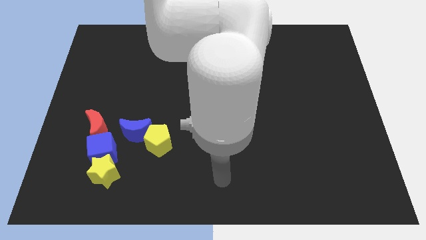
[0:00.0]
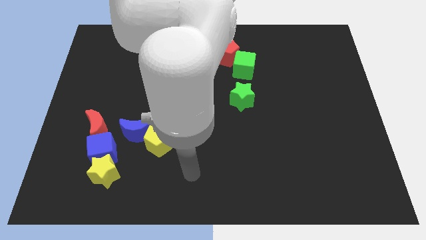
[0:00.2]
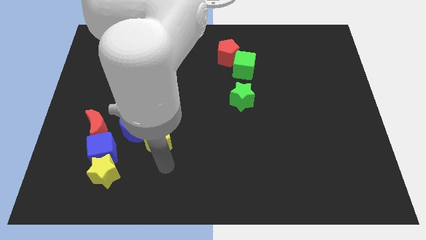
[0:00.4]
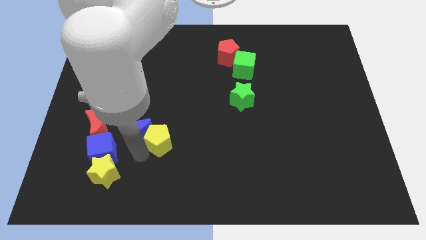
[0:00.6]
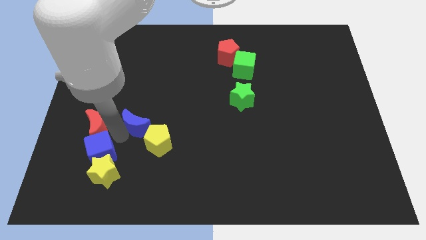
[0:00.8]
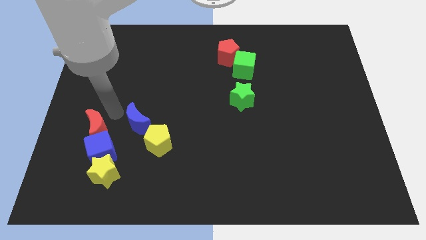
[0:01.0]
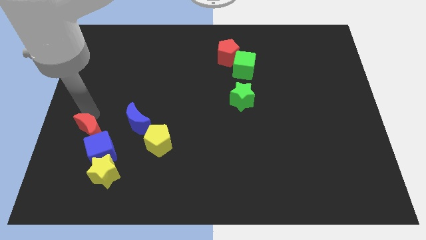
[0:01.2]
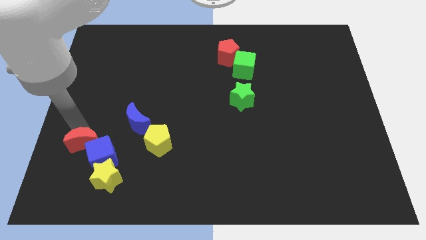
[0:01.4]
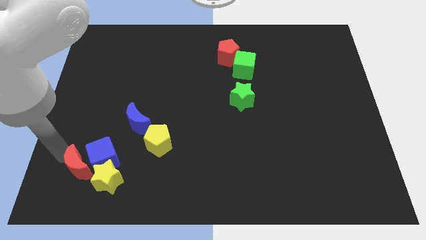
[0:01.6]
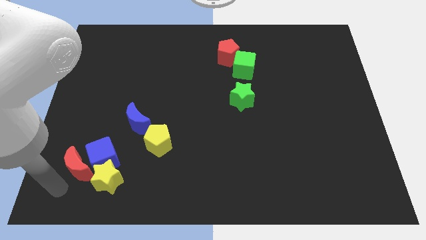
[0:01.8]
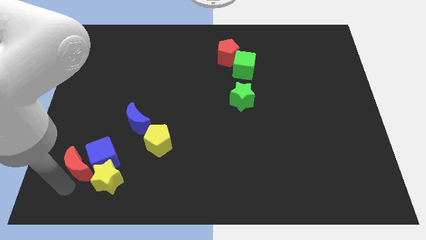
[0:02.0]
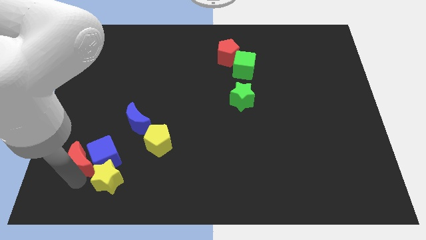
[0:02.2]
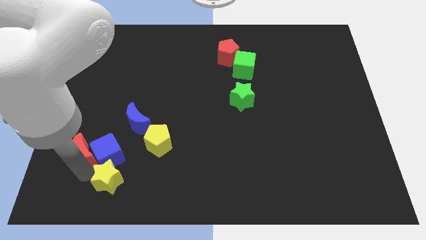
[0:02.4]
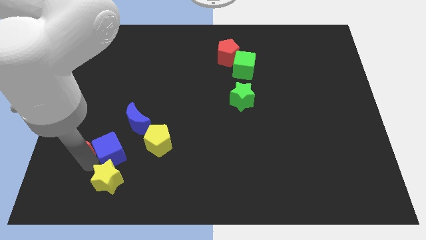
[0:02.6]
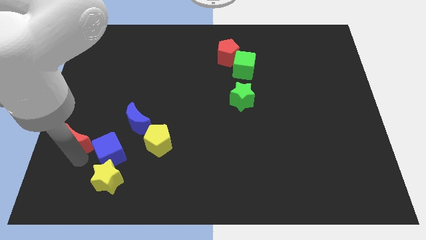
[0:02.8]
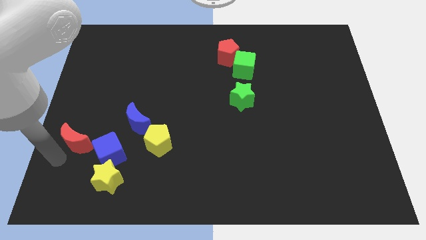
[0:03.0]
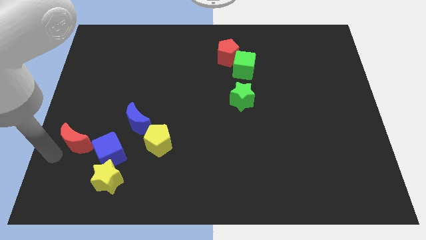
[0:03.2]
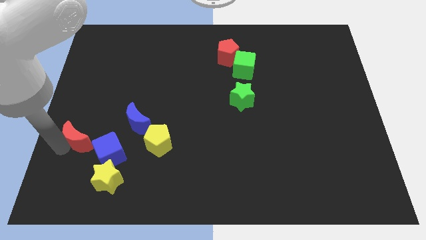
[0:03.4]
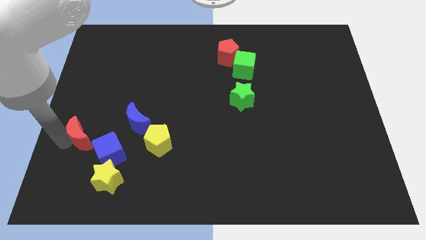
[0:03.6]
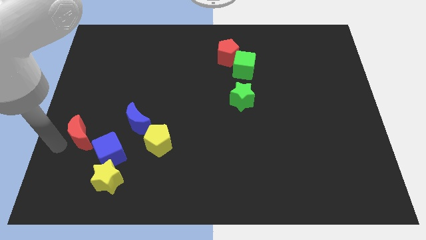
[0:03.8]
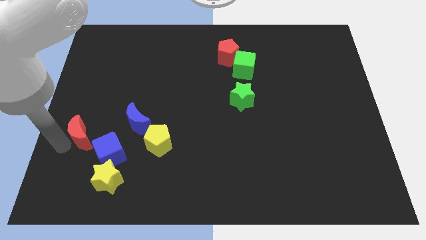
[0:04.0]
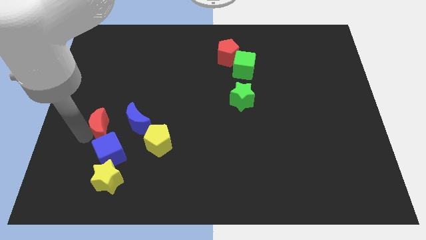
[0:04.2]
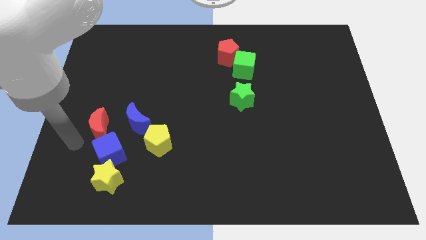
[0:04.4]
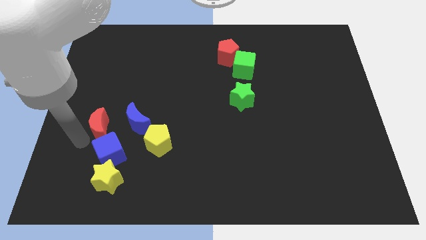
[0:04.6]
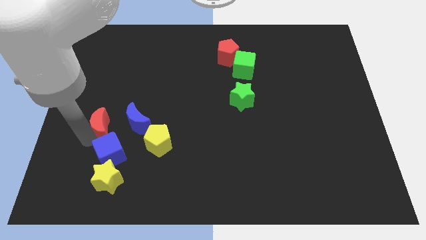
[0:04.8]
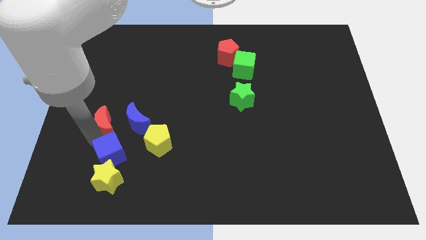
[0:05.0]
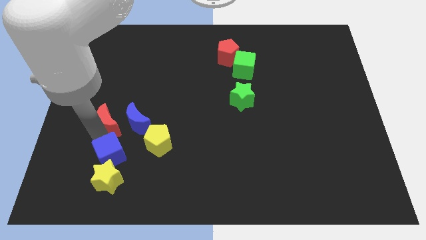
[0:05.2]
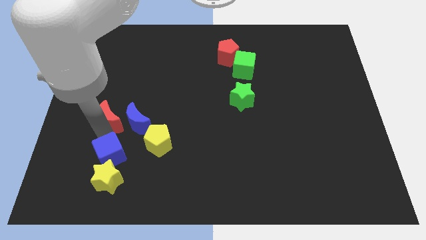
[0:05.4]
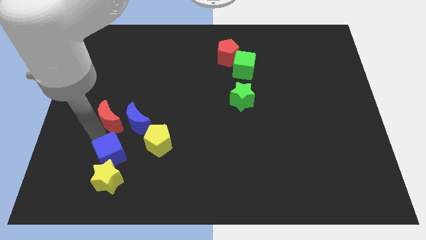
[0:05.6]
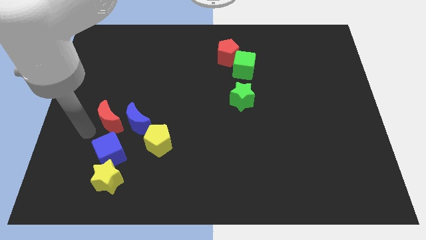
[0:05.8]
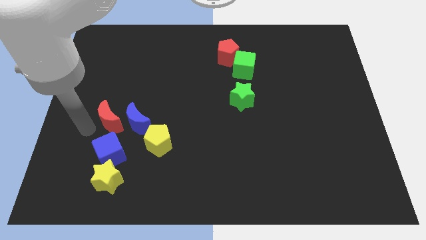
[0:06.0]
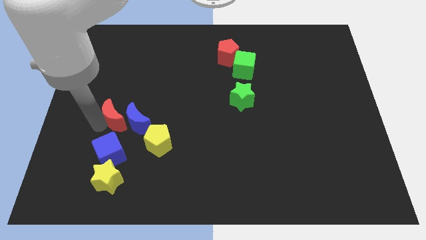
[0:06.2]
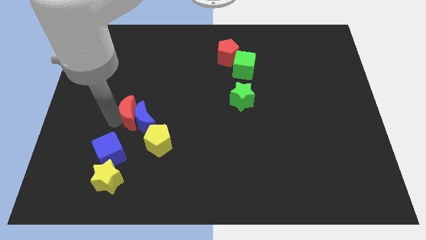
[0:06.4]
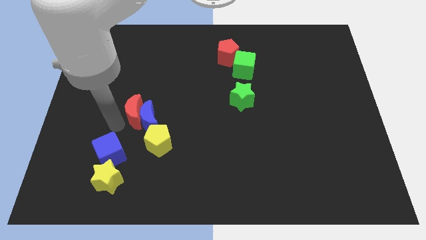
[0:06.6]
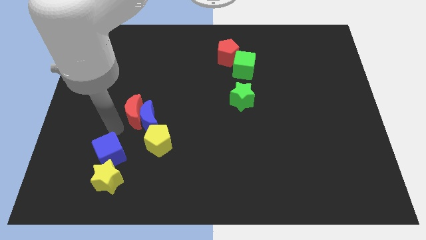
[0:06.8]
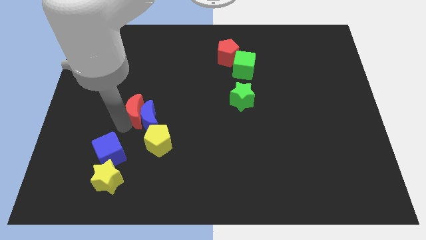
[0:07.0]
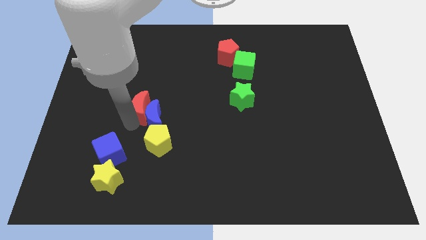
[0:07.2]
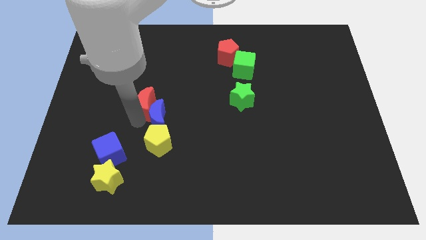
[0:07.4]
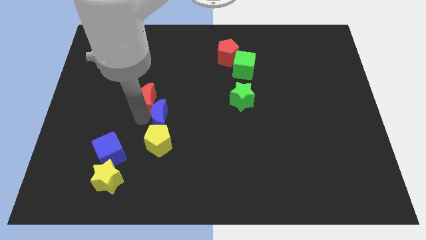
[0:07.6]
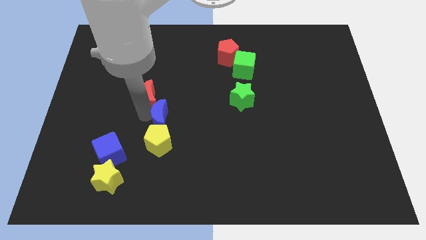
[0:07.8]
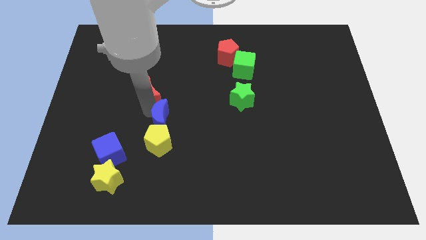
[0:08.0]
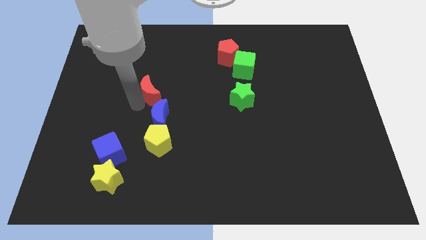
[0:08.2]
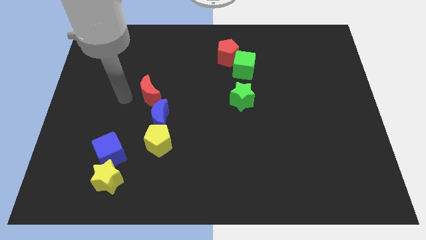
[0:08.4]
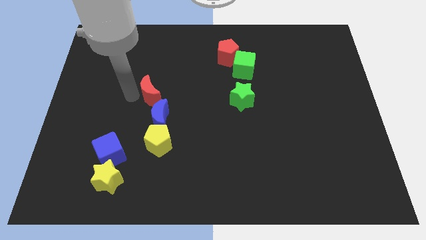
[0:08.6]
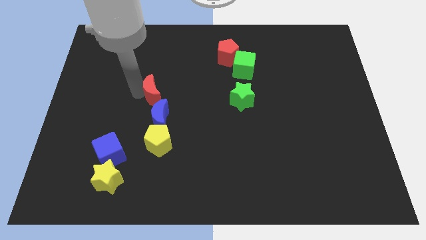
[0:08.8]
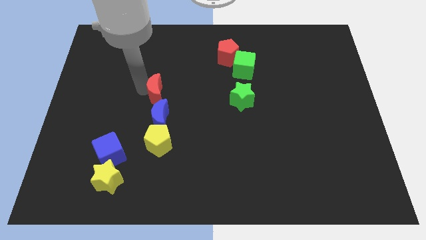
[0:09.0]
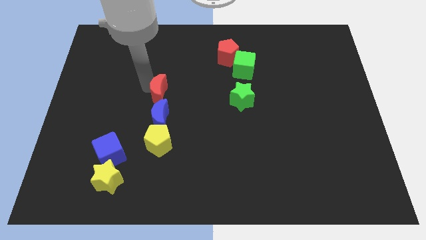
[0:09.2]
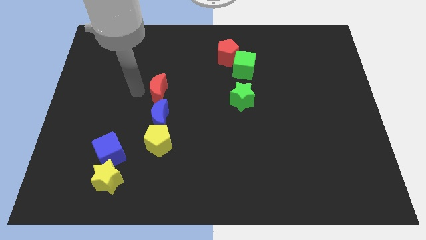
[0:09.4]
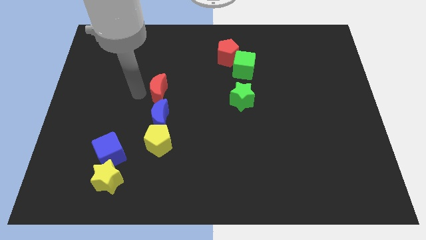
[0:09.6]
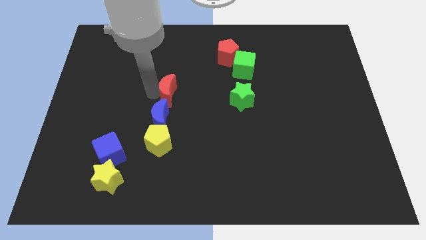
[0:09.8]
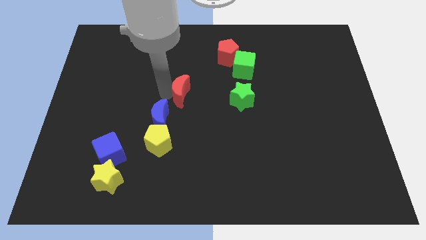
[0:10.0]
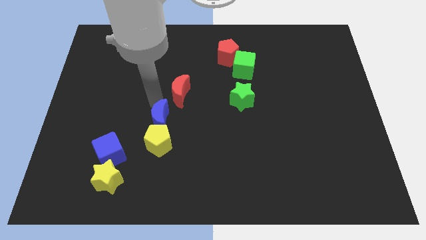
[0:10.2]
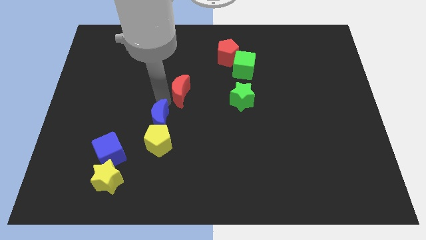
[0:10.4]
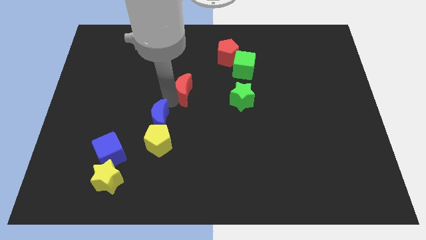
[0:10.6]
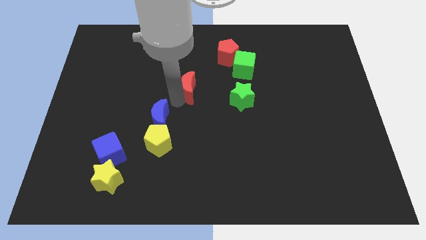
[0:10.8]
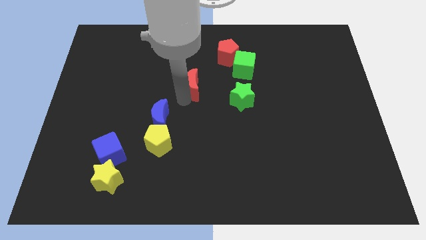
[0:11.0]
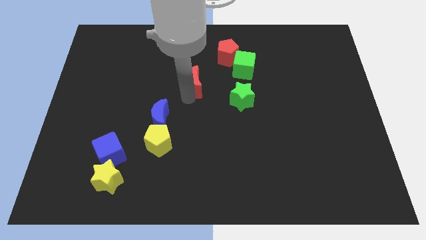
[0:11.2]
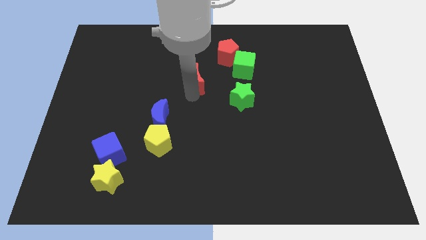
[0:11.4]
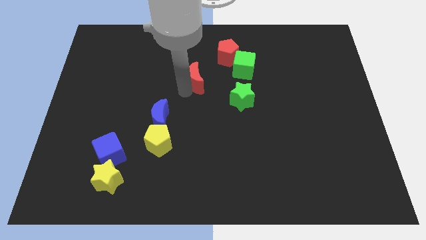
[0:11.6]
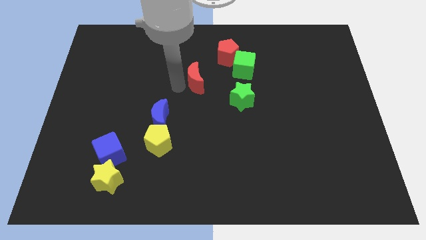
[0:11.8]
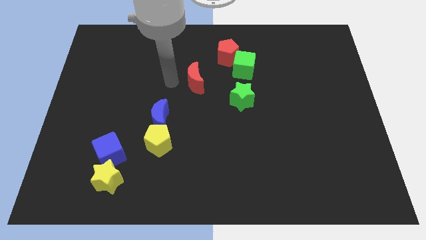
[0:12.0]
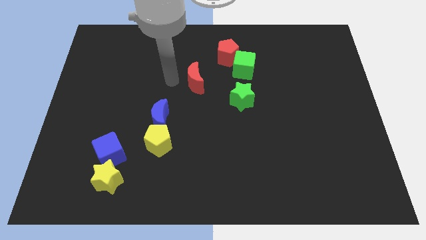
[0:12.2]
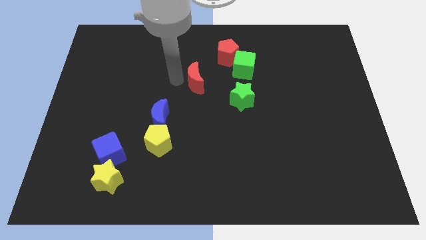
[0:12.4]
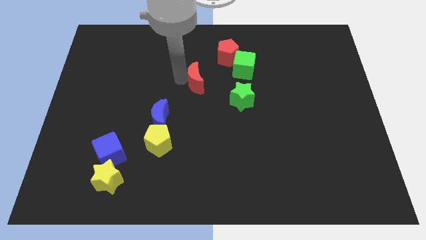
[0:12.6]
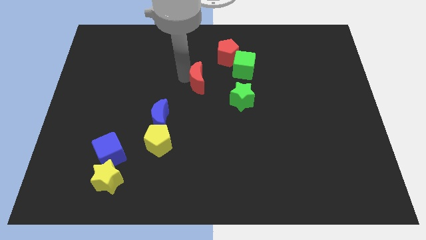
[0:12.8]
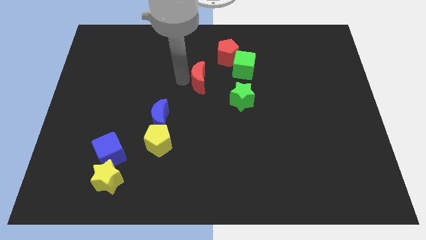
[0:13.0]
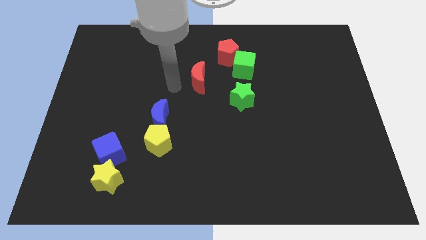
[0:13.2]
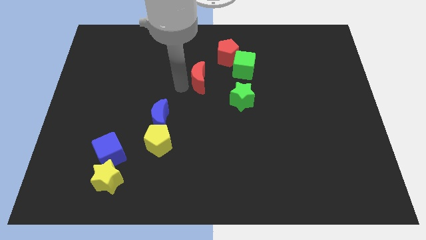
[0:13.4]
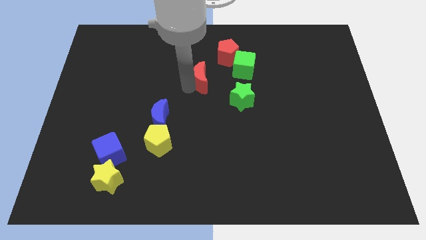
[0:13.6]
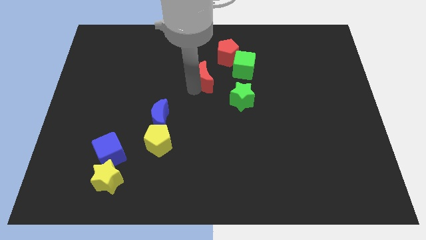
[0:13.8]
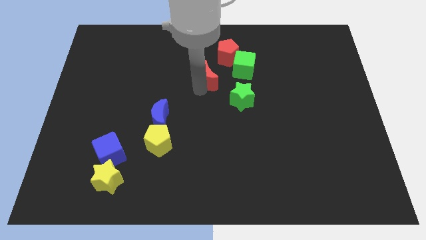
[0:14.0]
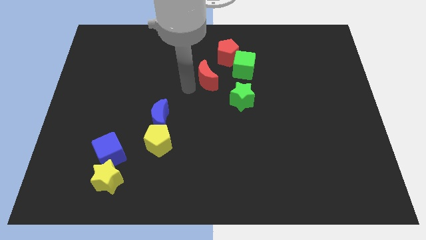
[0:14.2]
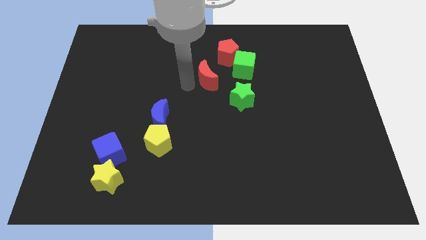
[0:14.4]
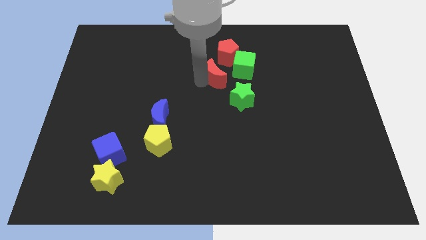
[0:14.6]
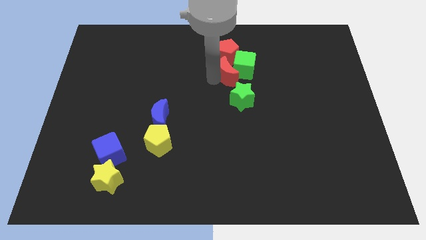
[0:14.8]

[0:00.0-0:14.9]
push the red moon next to the green cube
